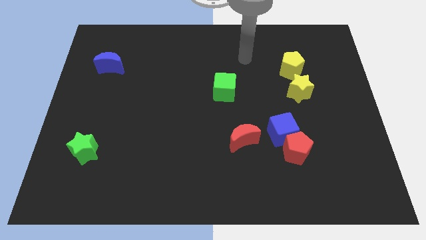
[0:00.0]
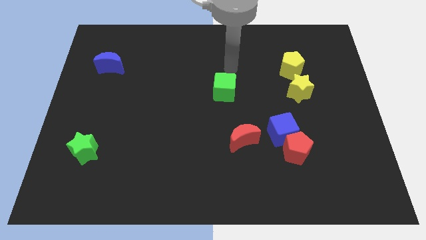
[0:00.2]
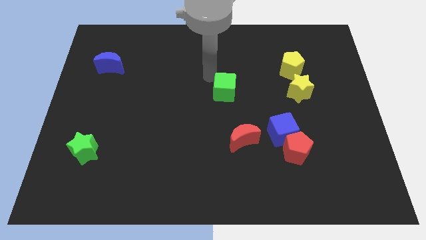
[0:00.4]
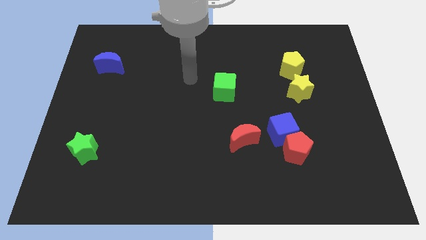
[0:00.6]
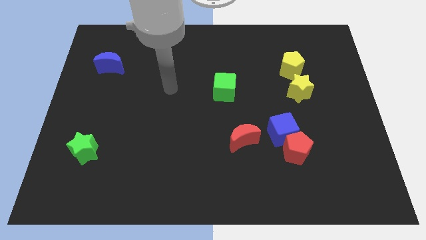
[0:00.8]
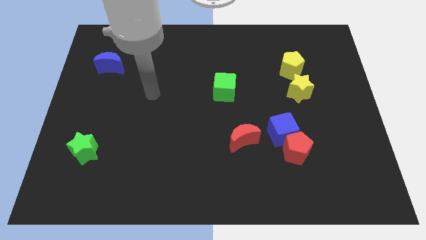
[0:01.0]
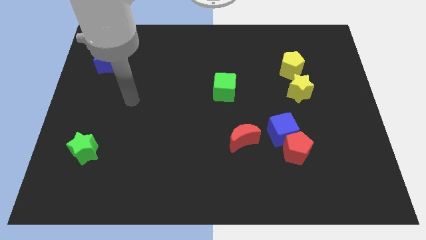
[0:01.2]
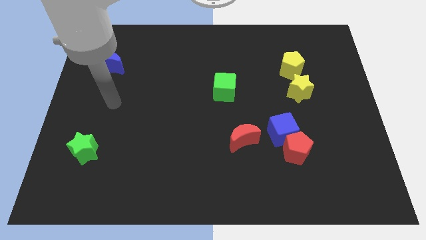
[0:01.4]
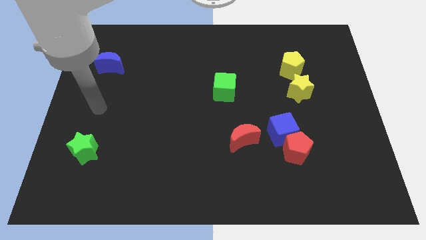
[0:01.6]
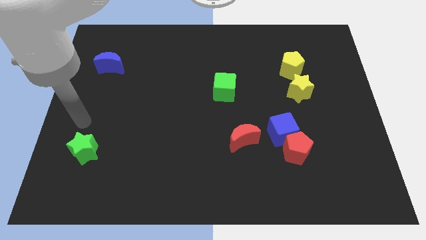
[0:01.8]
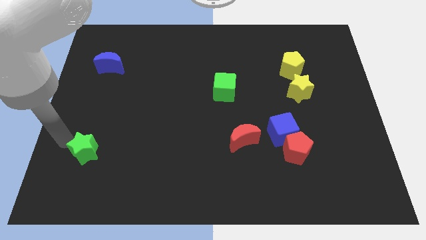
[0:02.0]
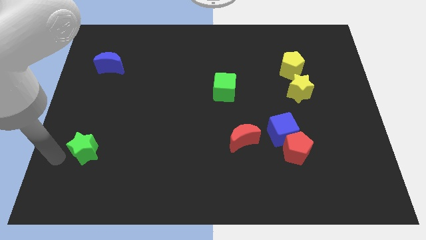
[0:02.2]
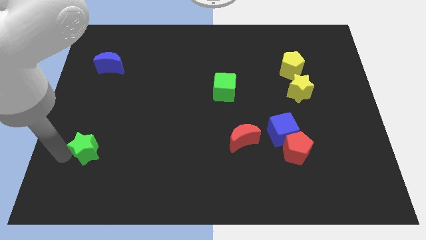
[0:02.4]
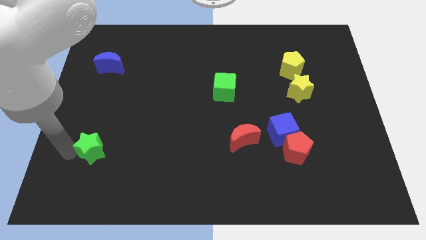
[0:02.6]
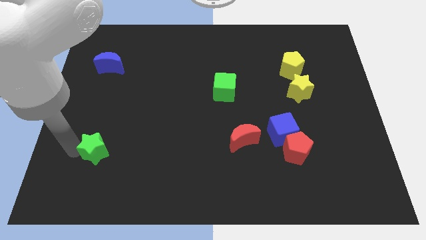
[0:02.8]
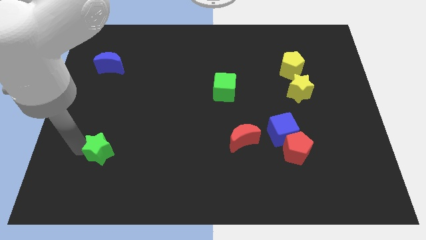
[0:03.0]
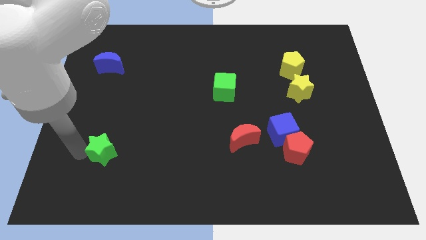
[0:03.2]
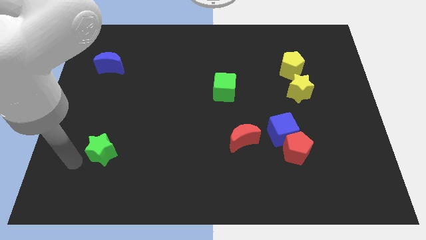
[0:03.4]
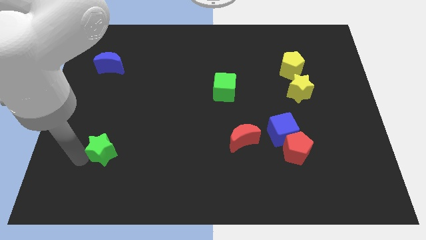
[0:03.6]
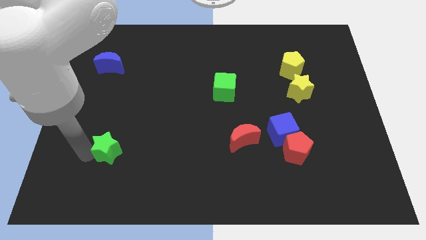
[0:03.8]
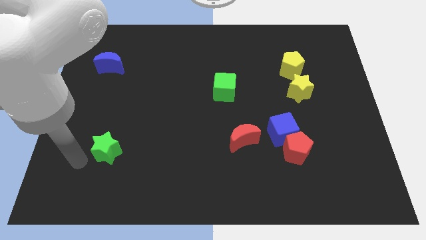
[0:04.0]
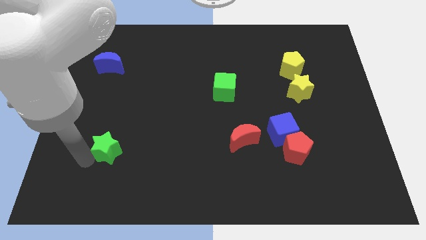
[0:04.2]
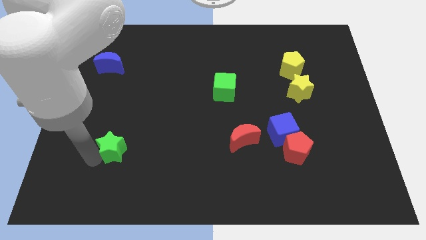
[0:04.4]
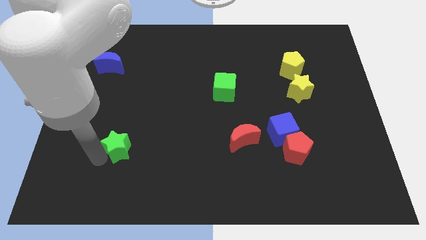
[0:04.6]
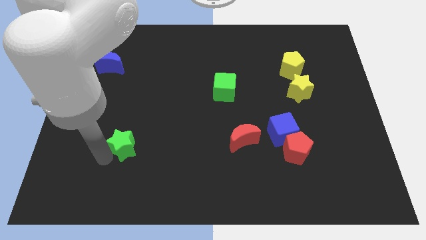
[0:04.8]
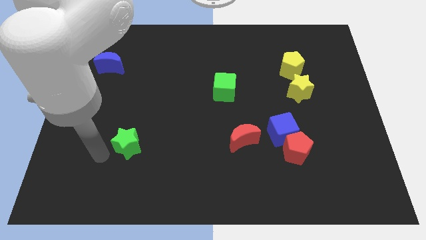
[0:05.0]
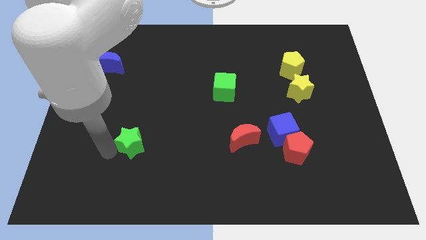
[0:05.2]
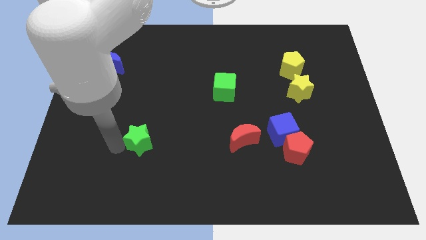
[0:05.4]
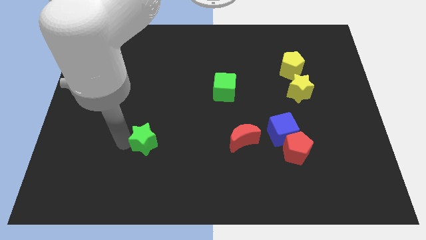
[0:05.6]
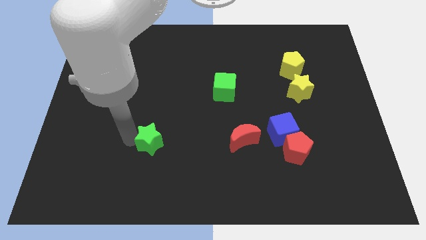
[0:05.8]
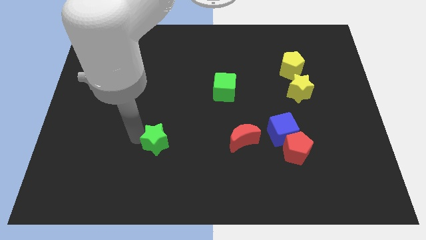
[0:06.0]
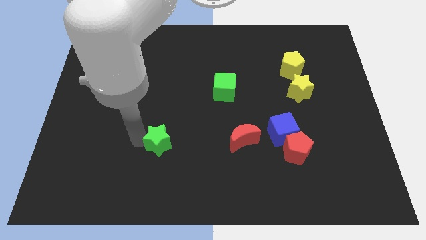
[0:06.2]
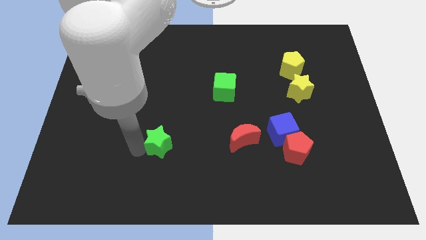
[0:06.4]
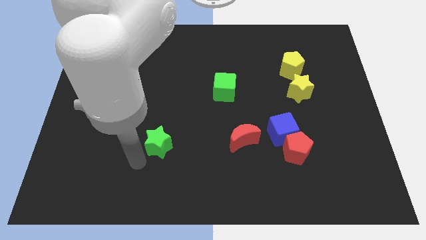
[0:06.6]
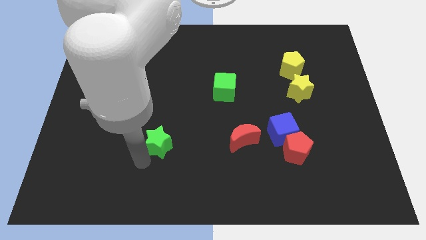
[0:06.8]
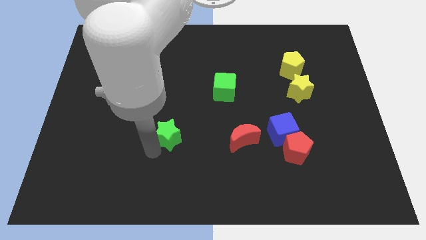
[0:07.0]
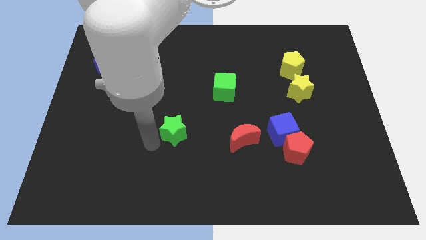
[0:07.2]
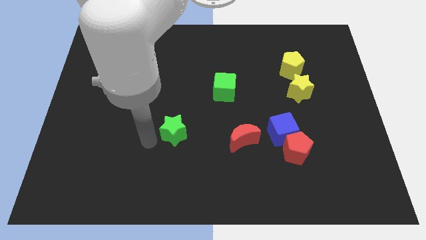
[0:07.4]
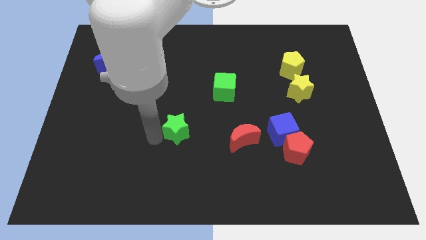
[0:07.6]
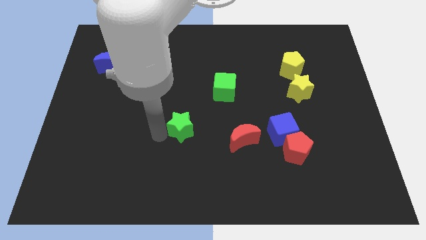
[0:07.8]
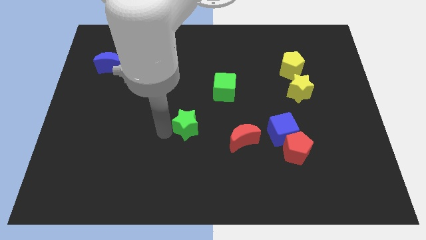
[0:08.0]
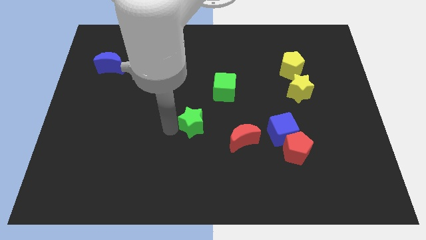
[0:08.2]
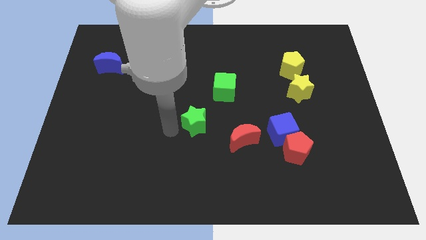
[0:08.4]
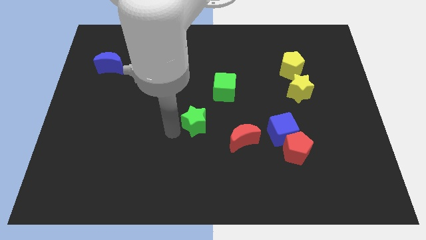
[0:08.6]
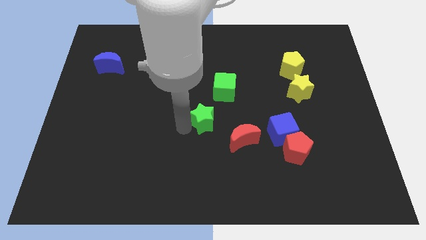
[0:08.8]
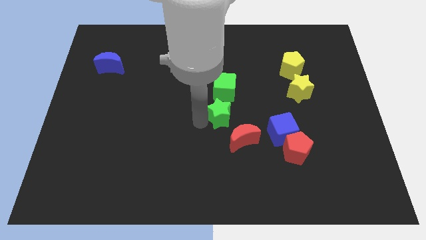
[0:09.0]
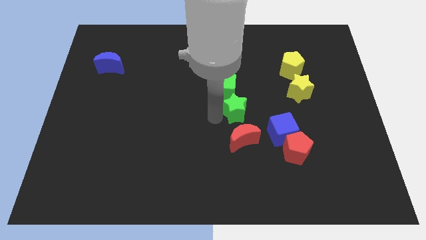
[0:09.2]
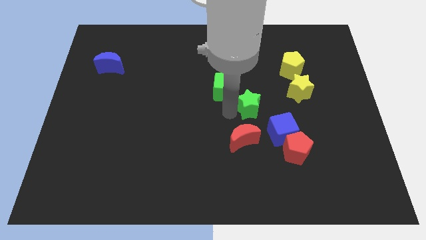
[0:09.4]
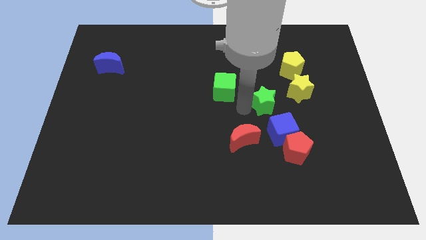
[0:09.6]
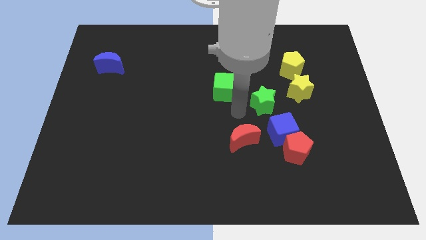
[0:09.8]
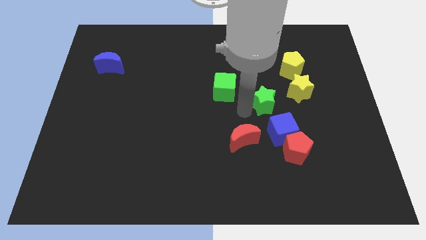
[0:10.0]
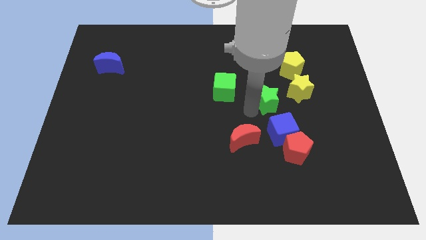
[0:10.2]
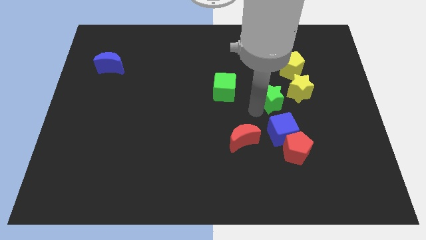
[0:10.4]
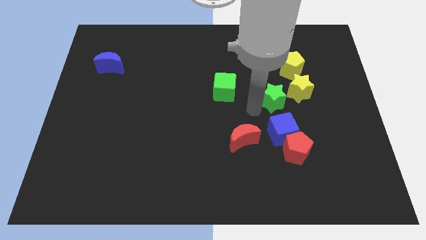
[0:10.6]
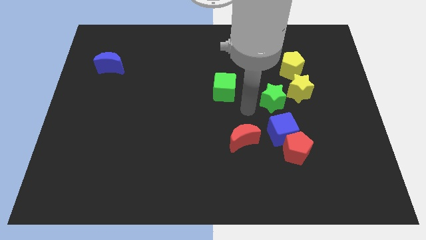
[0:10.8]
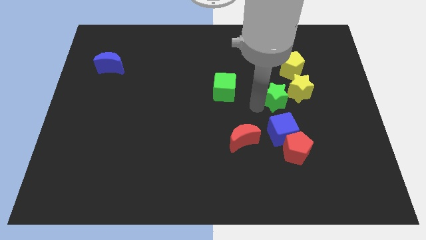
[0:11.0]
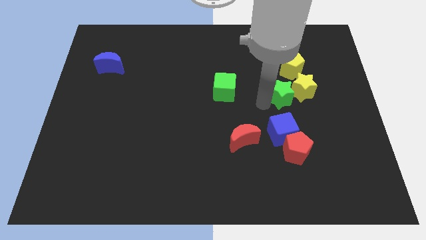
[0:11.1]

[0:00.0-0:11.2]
move the green star to the yellow star
